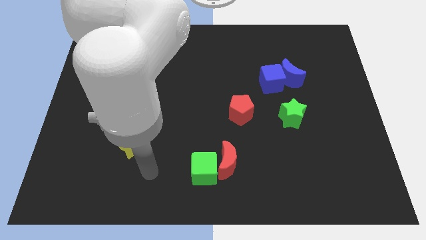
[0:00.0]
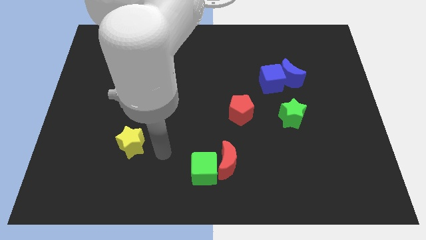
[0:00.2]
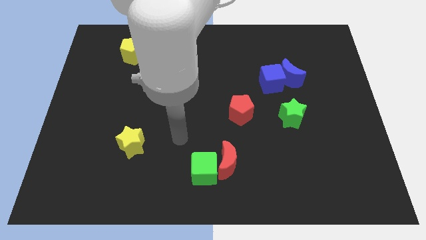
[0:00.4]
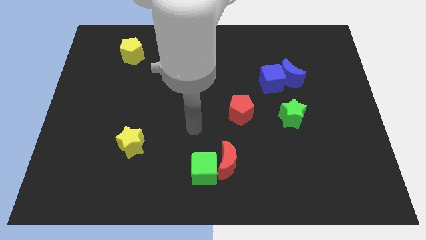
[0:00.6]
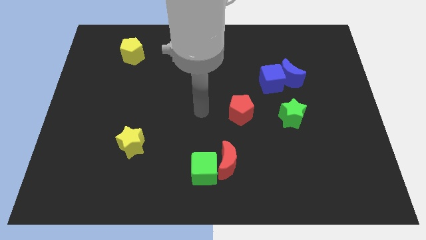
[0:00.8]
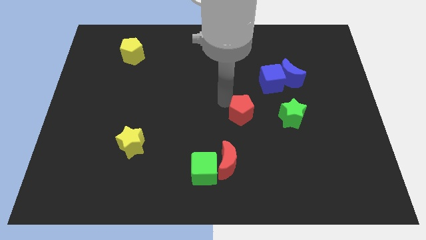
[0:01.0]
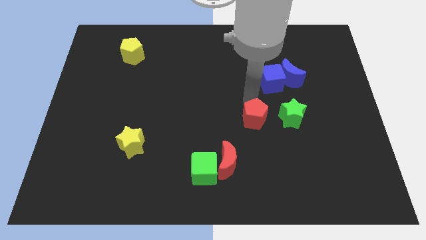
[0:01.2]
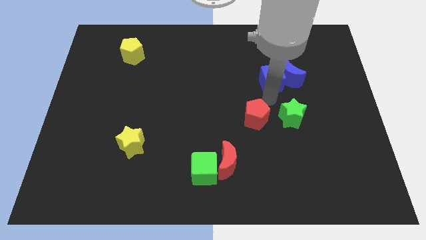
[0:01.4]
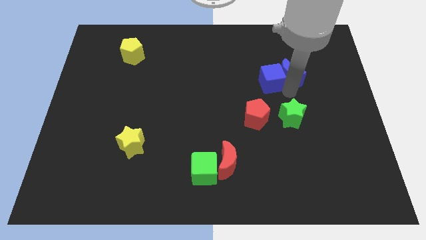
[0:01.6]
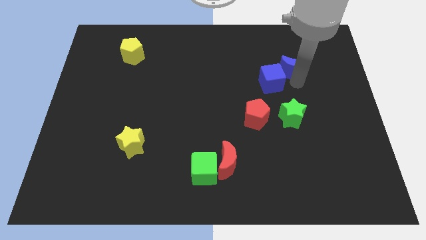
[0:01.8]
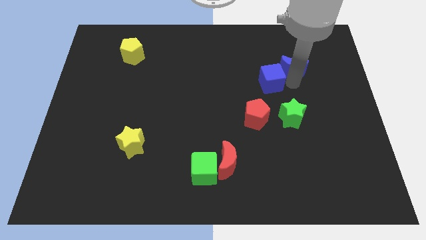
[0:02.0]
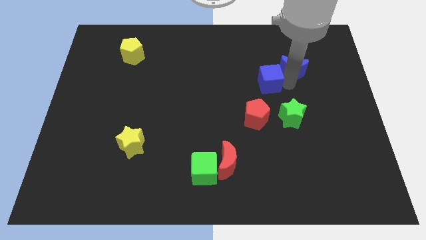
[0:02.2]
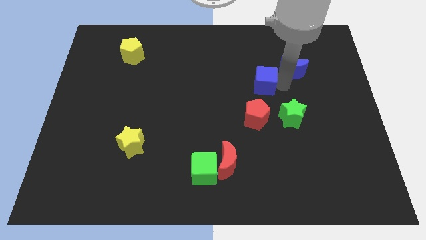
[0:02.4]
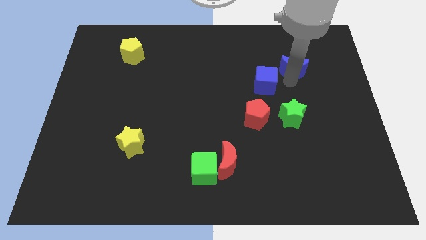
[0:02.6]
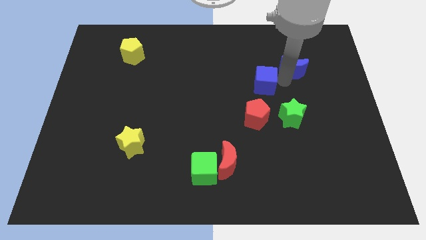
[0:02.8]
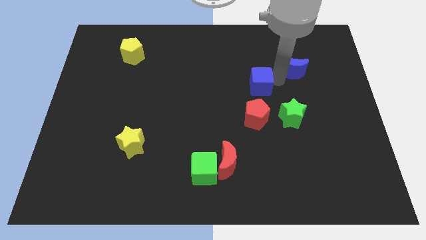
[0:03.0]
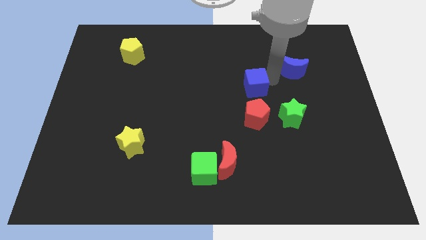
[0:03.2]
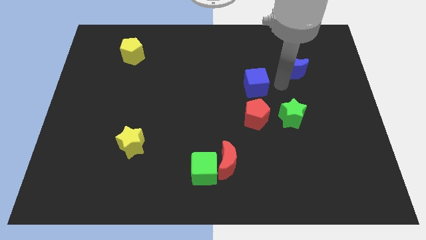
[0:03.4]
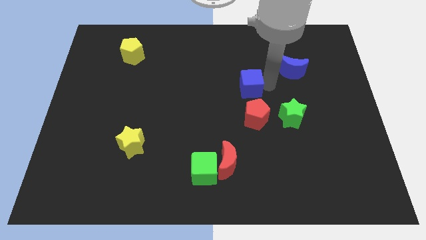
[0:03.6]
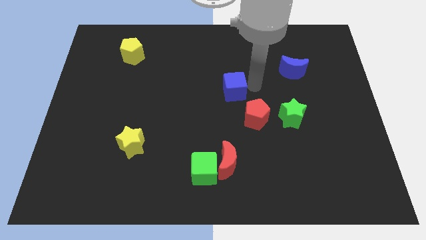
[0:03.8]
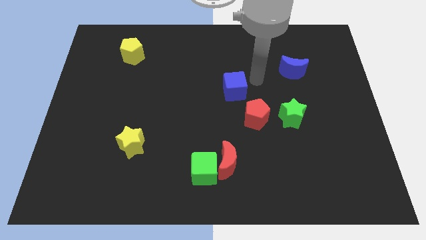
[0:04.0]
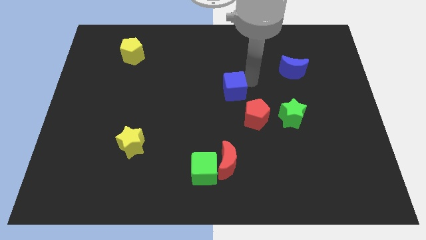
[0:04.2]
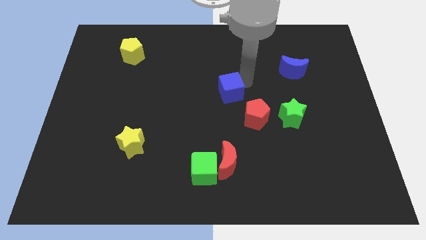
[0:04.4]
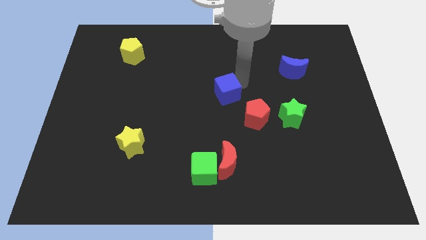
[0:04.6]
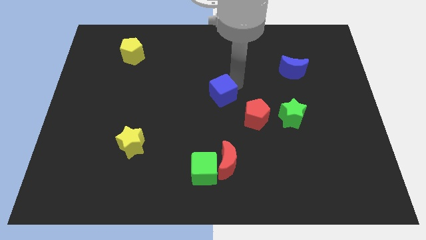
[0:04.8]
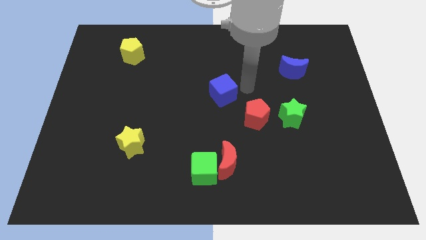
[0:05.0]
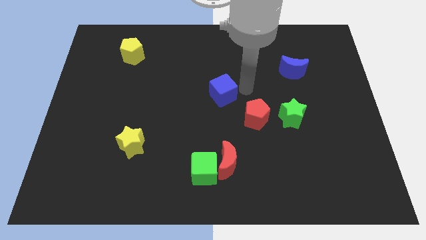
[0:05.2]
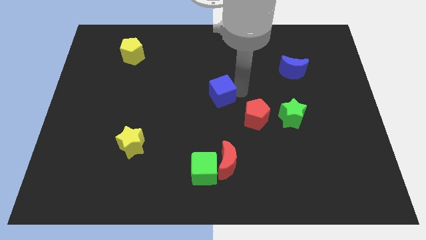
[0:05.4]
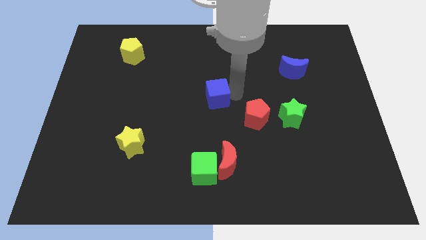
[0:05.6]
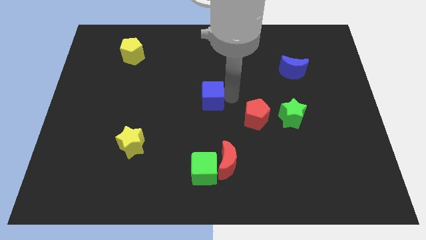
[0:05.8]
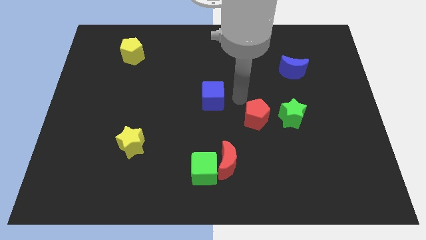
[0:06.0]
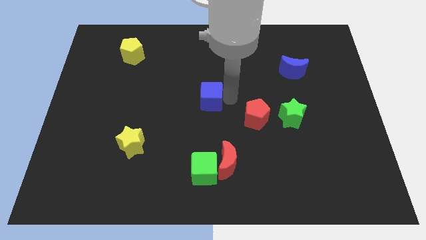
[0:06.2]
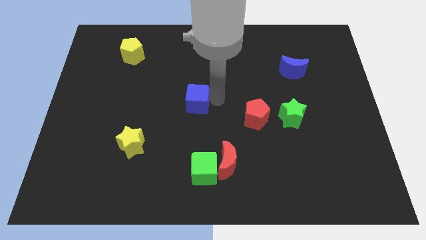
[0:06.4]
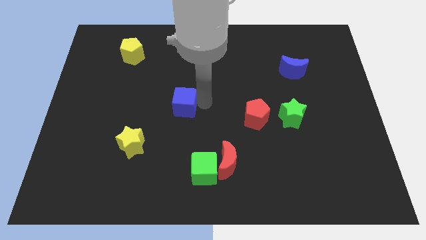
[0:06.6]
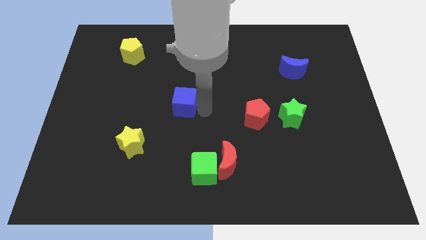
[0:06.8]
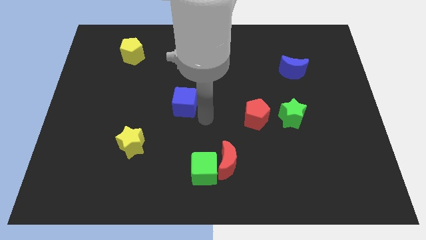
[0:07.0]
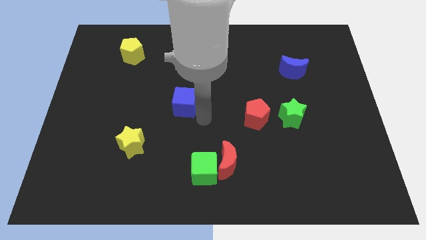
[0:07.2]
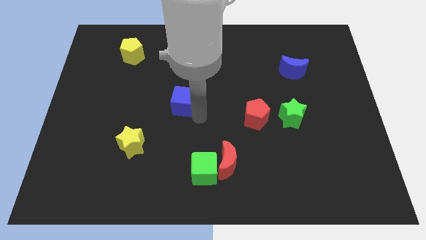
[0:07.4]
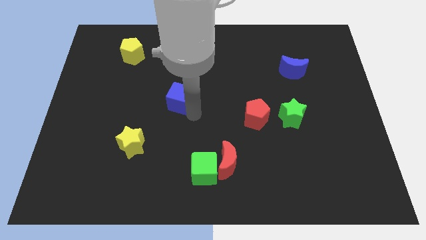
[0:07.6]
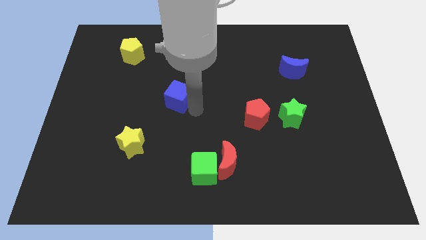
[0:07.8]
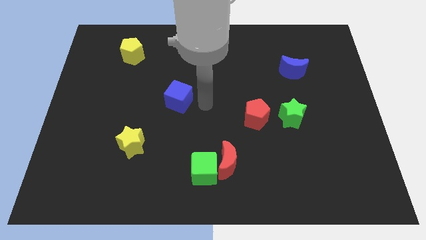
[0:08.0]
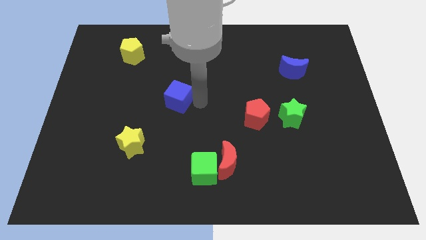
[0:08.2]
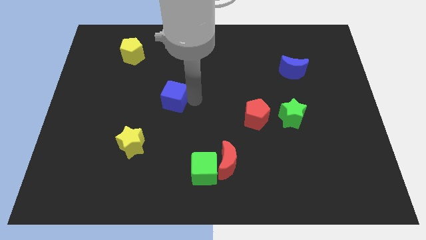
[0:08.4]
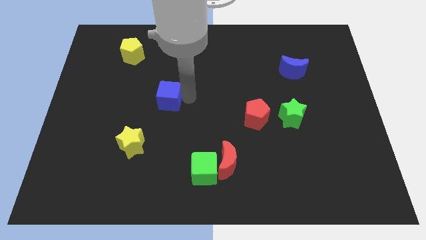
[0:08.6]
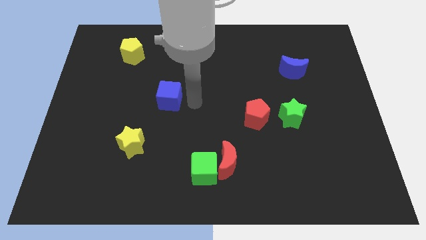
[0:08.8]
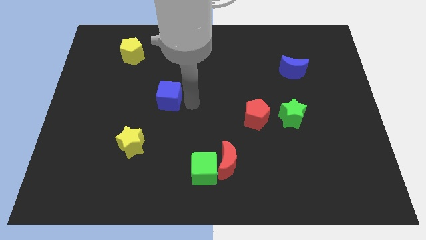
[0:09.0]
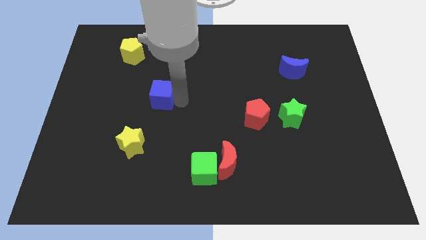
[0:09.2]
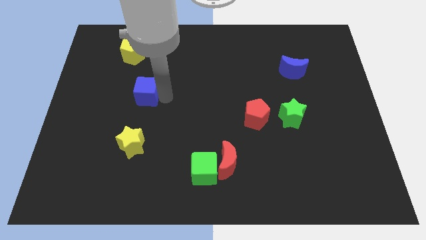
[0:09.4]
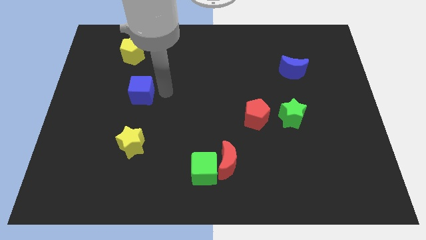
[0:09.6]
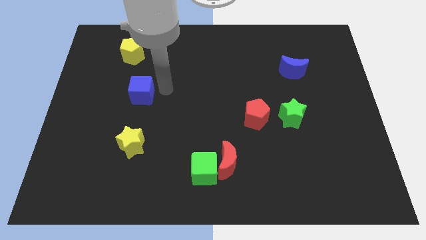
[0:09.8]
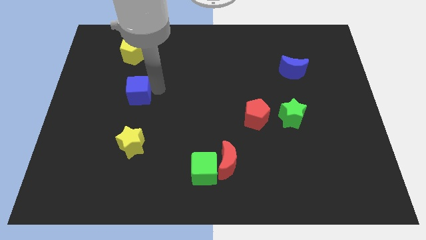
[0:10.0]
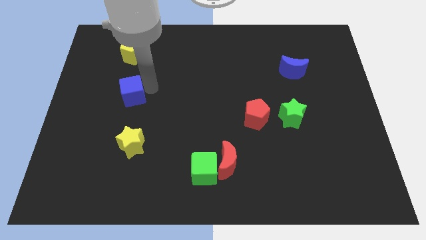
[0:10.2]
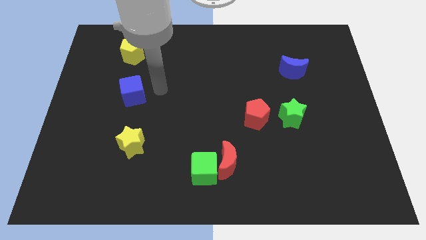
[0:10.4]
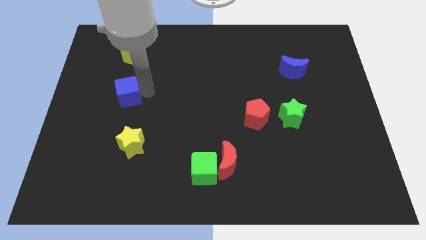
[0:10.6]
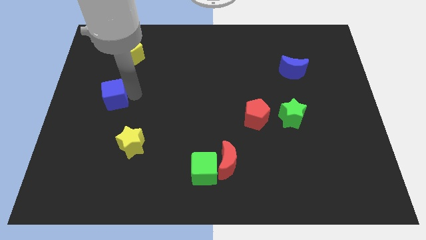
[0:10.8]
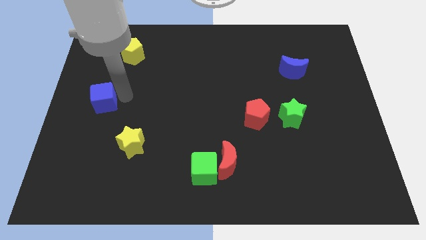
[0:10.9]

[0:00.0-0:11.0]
slide the blue cube to the left side of the board

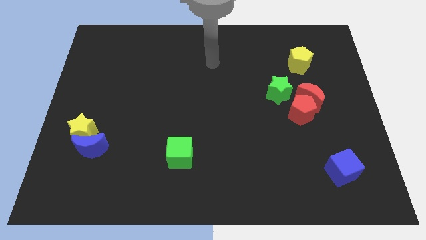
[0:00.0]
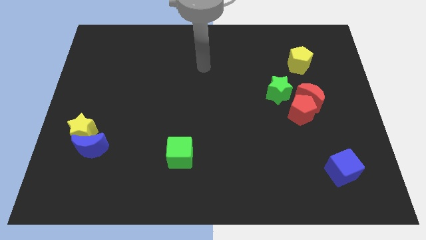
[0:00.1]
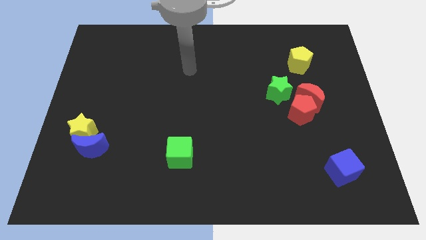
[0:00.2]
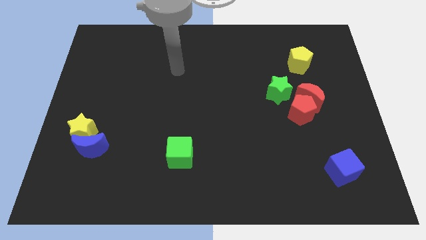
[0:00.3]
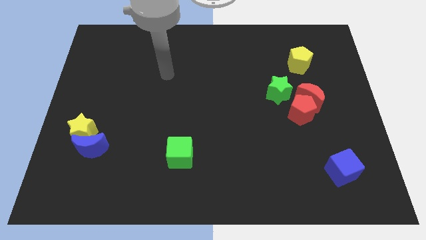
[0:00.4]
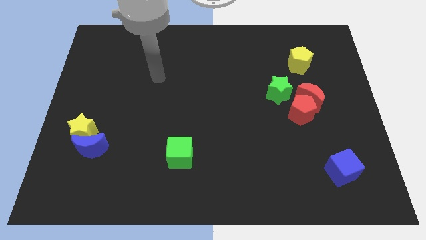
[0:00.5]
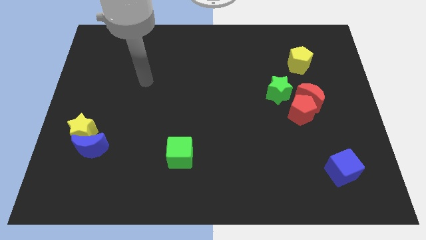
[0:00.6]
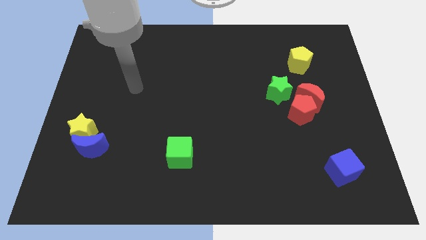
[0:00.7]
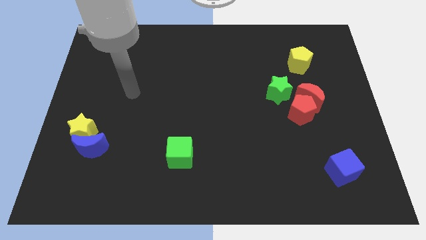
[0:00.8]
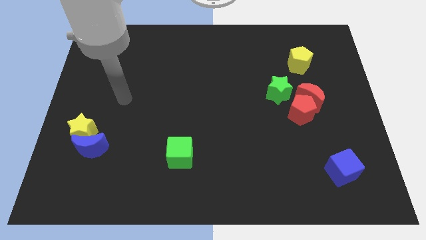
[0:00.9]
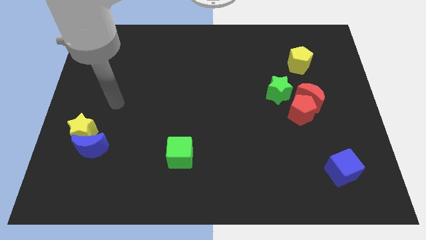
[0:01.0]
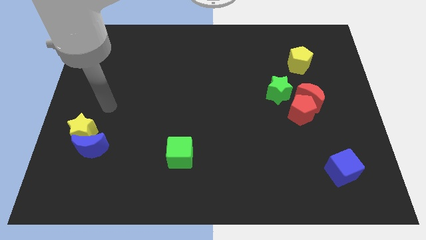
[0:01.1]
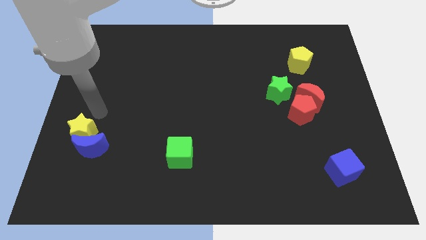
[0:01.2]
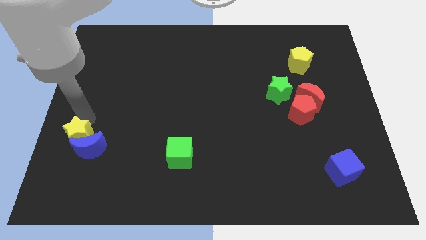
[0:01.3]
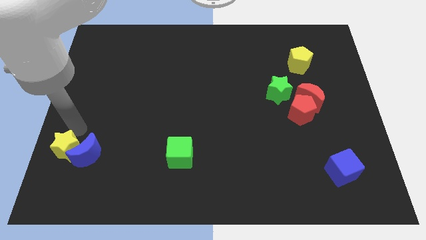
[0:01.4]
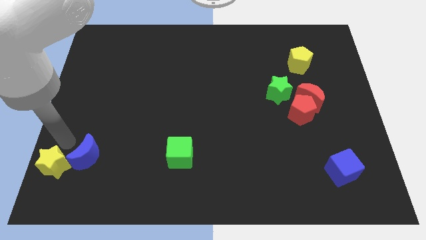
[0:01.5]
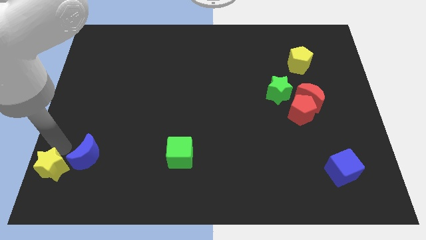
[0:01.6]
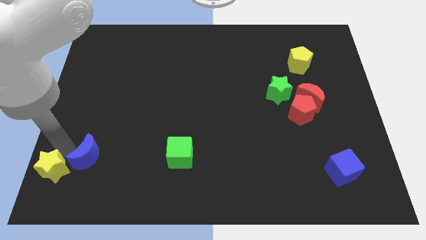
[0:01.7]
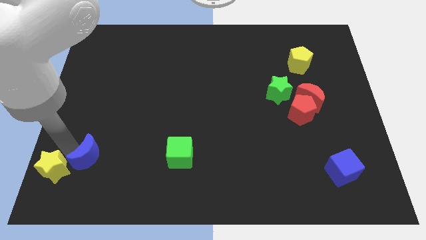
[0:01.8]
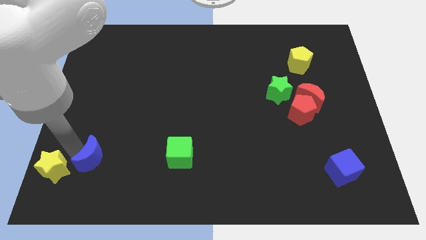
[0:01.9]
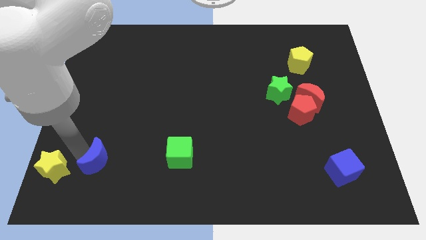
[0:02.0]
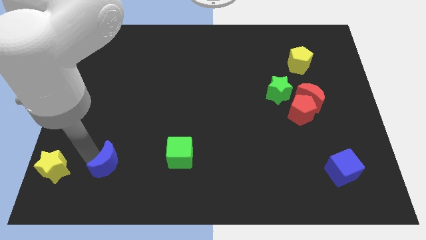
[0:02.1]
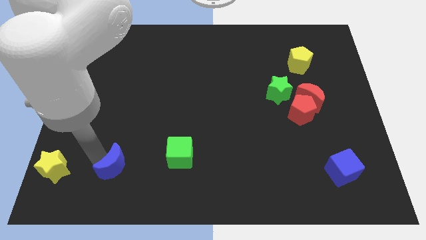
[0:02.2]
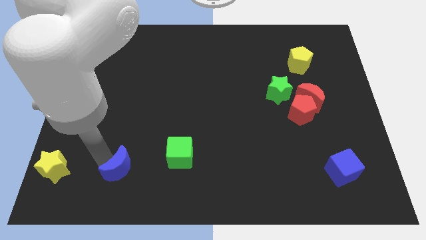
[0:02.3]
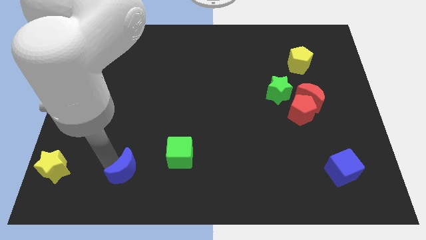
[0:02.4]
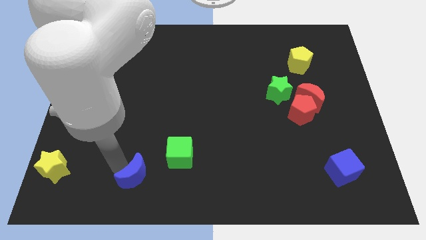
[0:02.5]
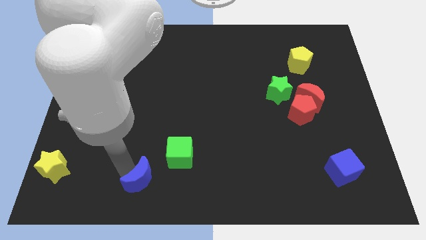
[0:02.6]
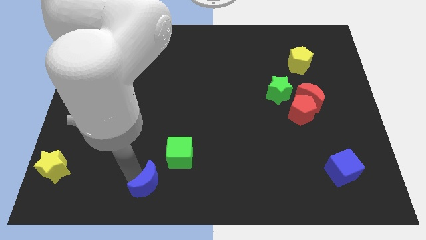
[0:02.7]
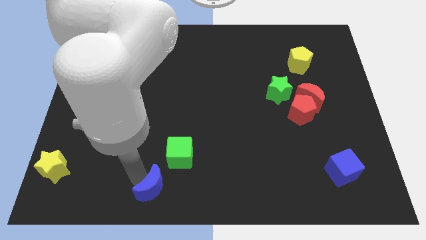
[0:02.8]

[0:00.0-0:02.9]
move the blue moon to the bottom
